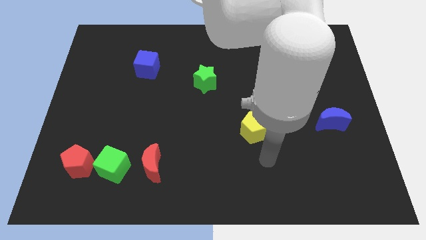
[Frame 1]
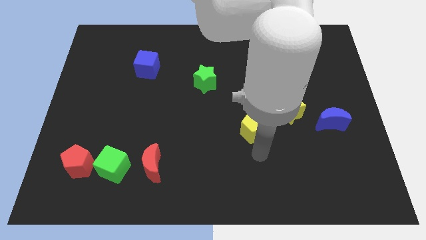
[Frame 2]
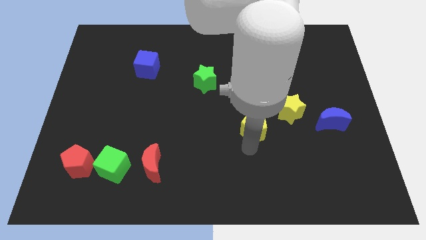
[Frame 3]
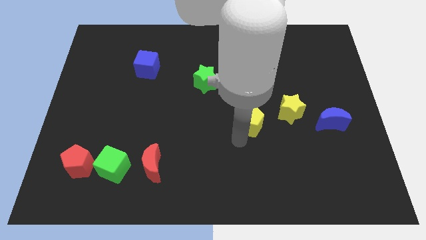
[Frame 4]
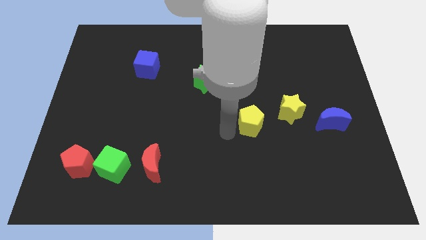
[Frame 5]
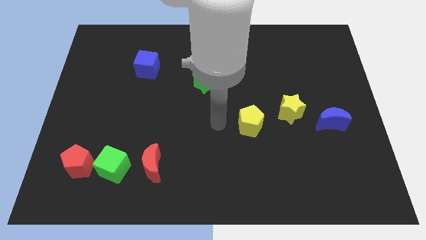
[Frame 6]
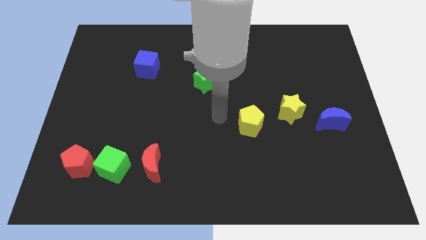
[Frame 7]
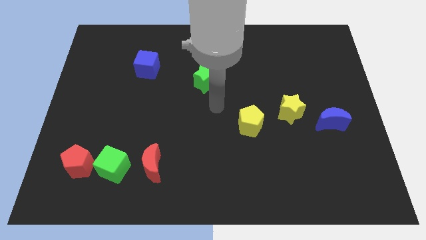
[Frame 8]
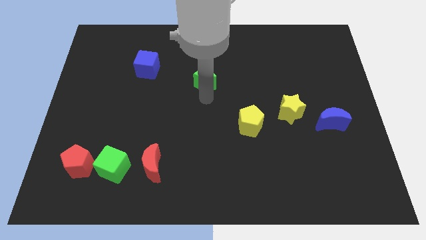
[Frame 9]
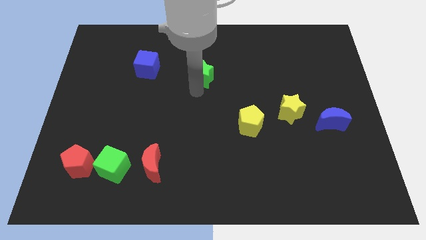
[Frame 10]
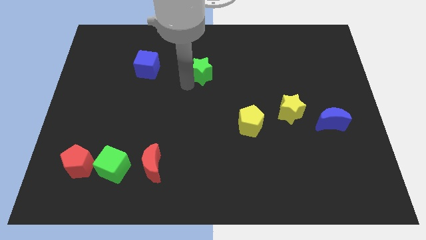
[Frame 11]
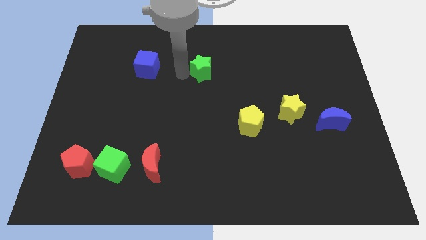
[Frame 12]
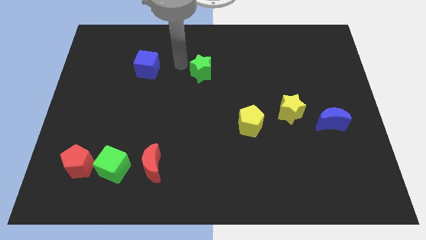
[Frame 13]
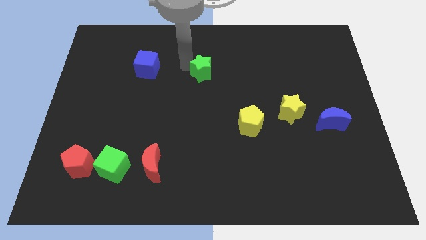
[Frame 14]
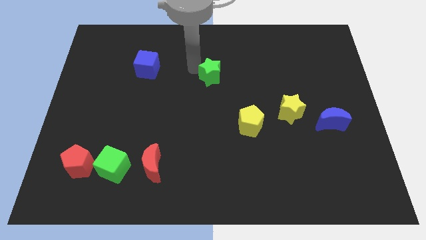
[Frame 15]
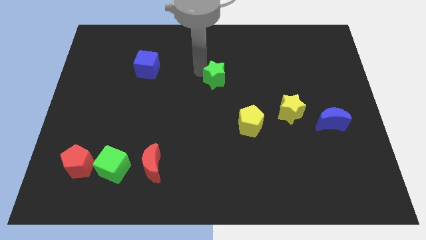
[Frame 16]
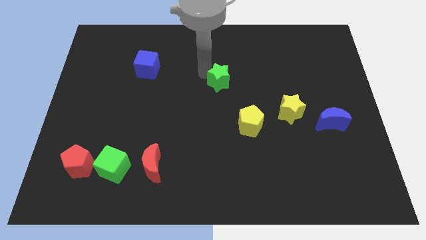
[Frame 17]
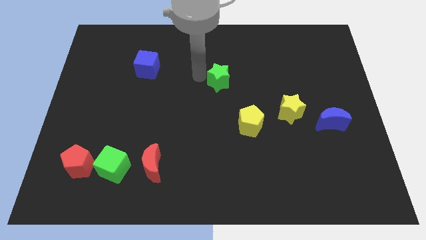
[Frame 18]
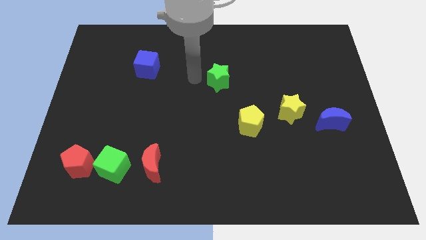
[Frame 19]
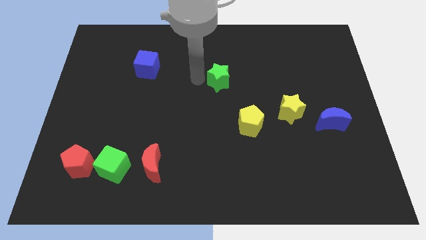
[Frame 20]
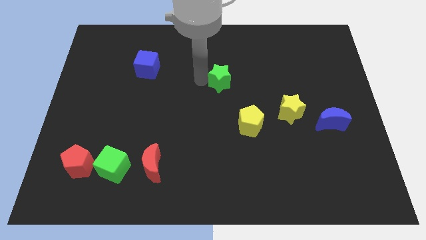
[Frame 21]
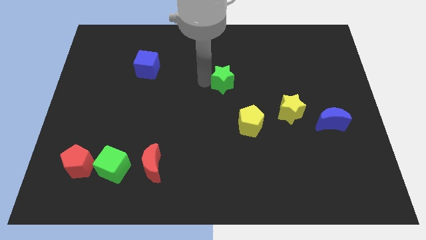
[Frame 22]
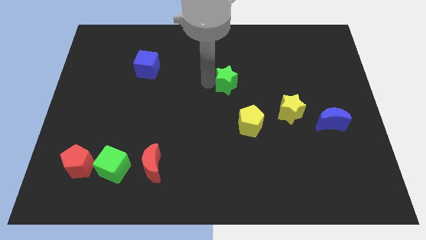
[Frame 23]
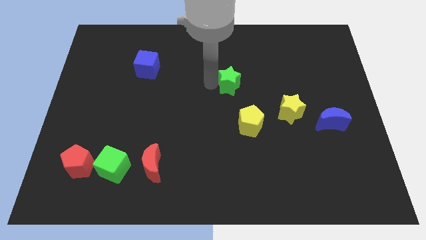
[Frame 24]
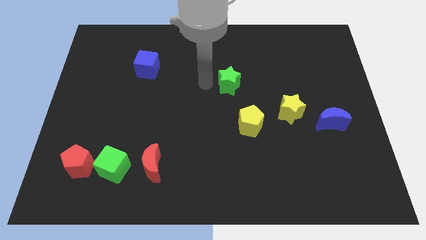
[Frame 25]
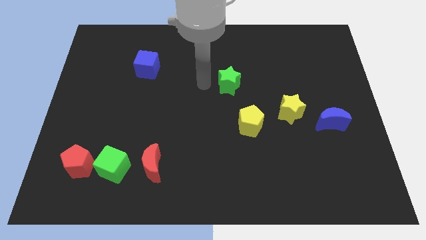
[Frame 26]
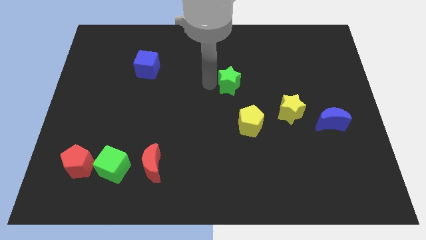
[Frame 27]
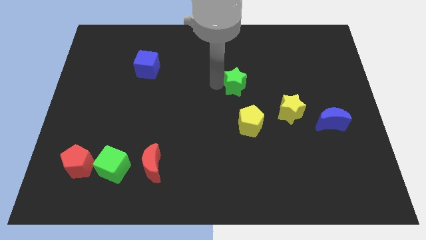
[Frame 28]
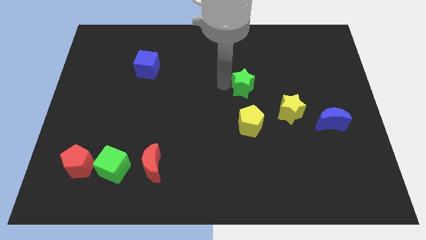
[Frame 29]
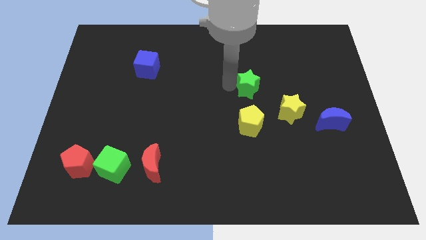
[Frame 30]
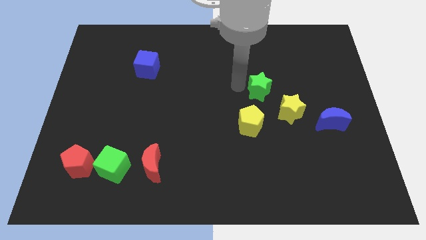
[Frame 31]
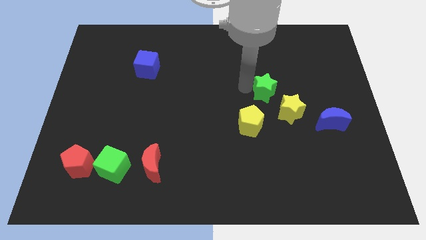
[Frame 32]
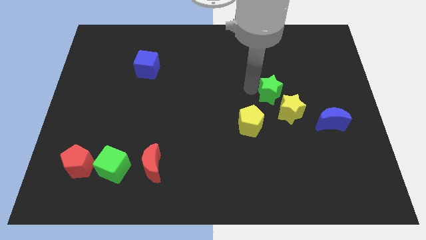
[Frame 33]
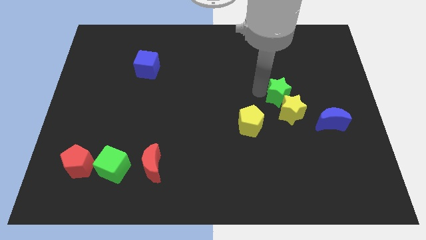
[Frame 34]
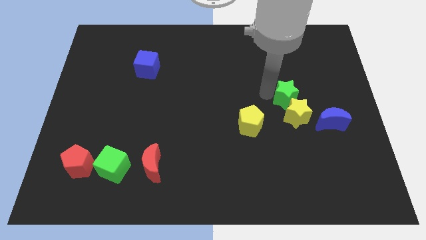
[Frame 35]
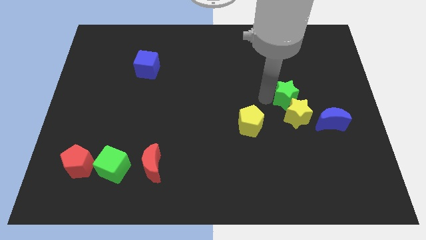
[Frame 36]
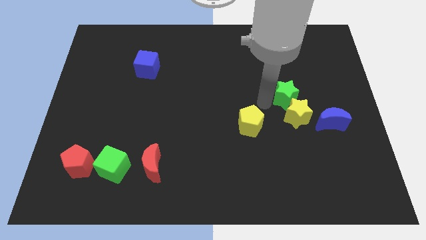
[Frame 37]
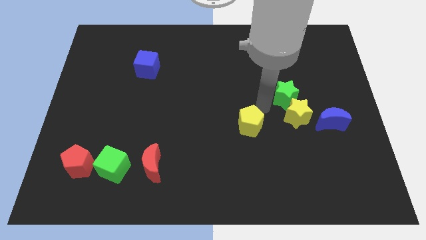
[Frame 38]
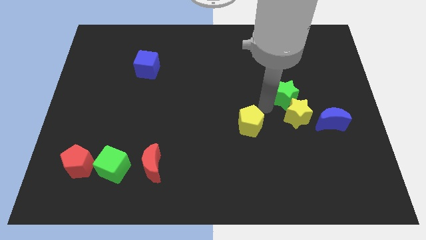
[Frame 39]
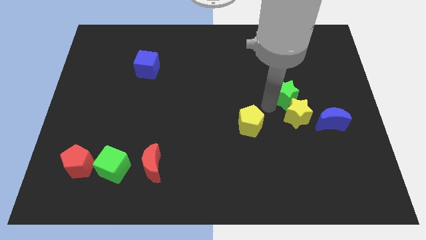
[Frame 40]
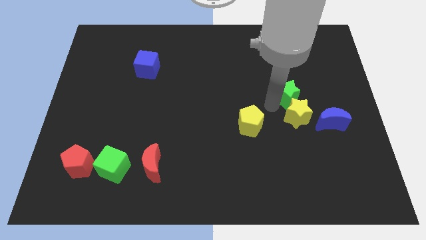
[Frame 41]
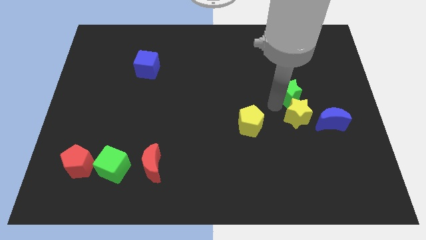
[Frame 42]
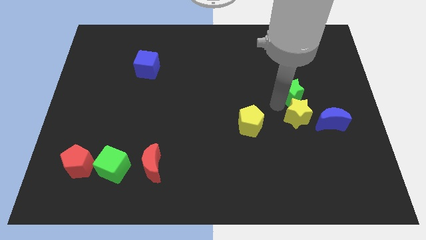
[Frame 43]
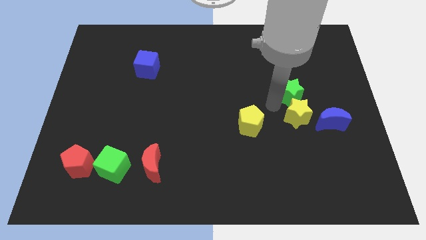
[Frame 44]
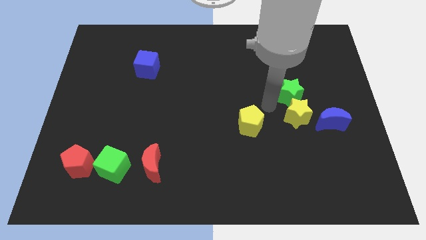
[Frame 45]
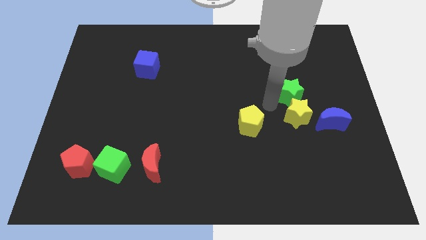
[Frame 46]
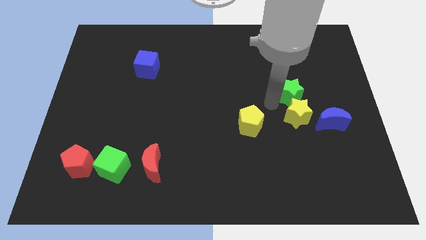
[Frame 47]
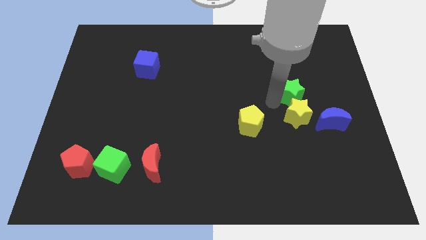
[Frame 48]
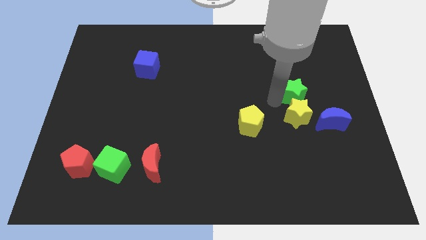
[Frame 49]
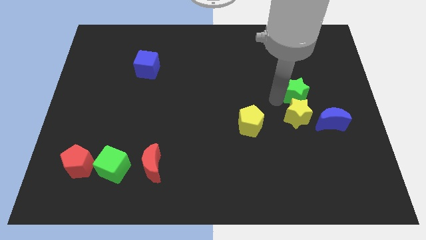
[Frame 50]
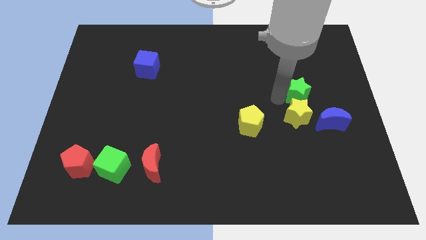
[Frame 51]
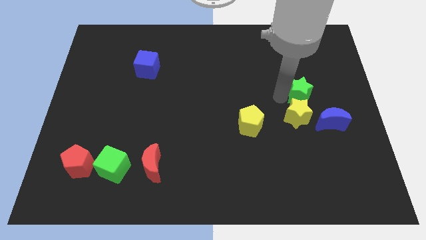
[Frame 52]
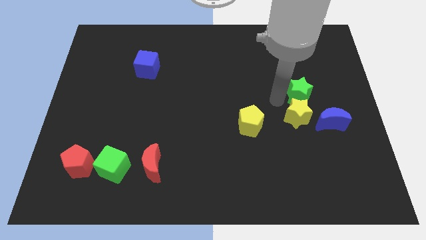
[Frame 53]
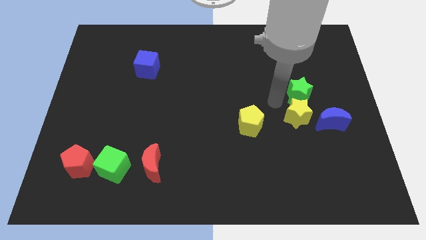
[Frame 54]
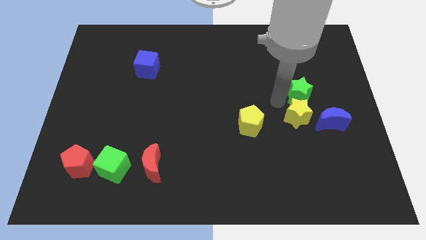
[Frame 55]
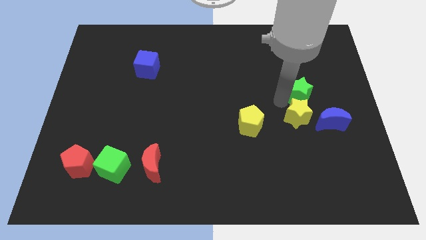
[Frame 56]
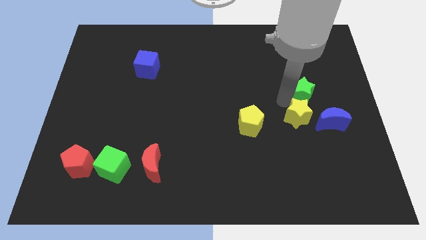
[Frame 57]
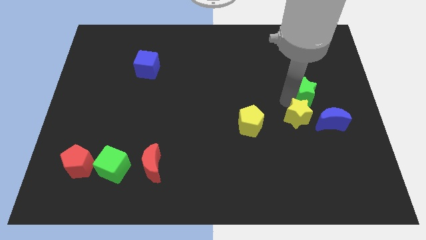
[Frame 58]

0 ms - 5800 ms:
slide the green star above the blue moon

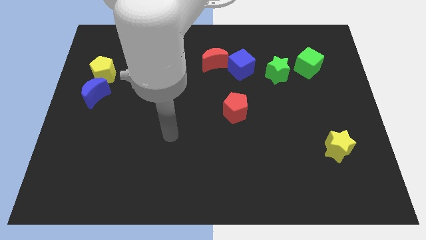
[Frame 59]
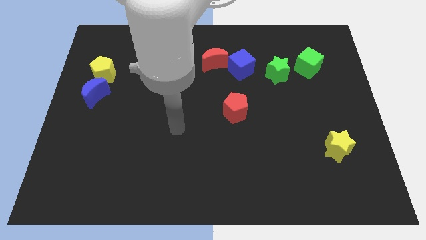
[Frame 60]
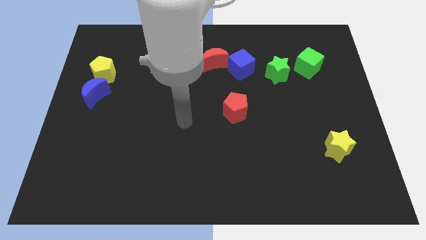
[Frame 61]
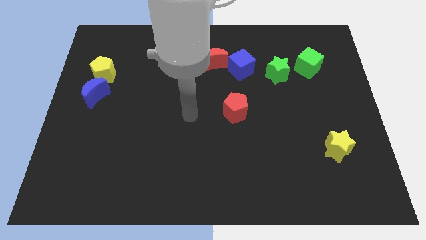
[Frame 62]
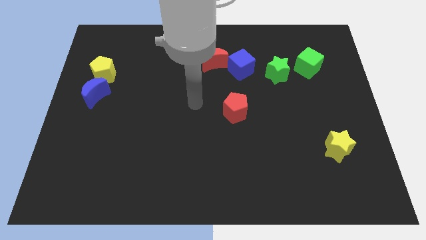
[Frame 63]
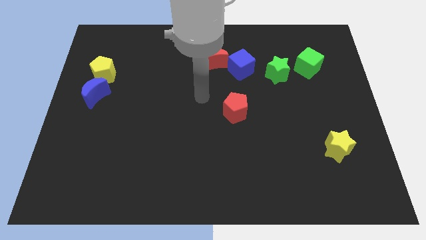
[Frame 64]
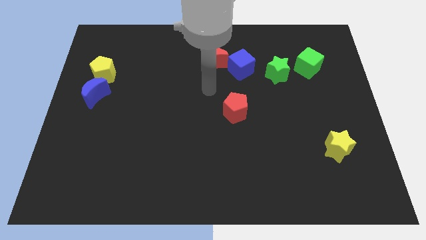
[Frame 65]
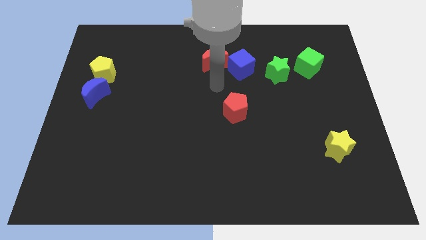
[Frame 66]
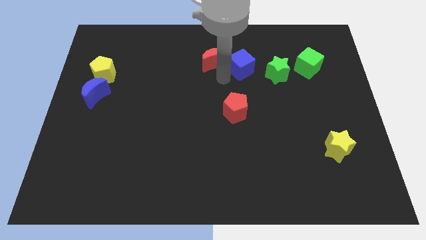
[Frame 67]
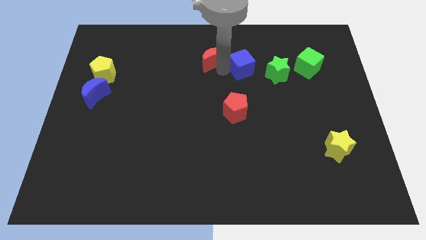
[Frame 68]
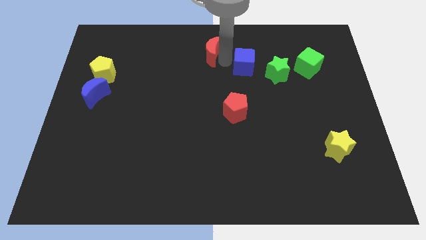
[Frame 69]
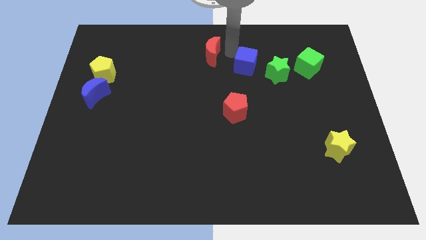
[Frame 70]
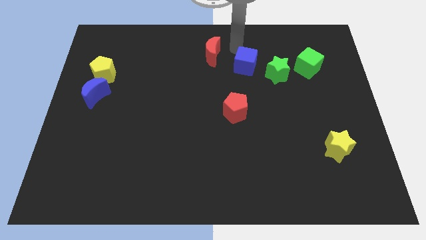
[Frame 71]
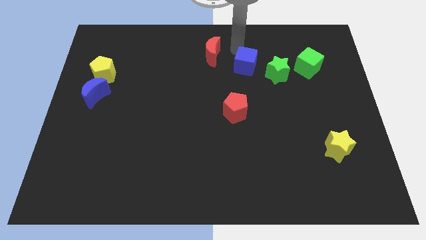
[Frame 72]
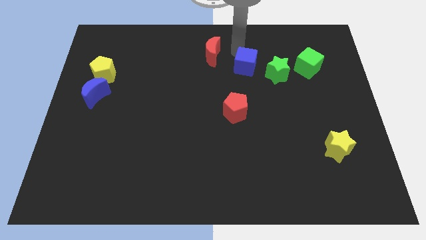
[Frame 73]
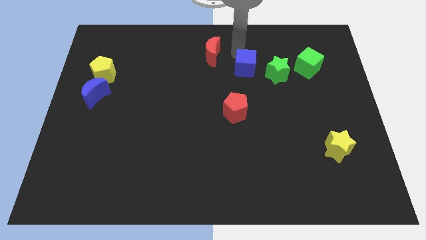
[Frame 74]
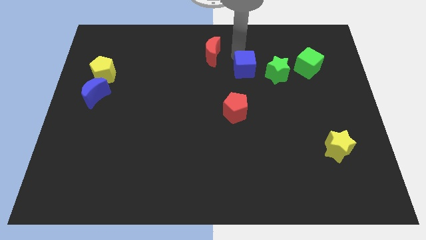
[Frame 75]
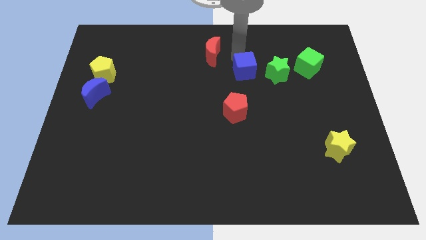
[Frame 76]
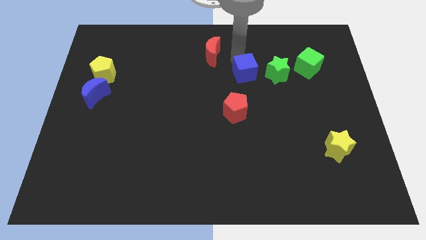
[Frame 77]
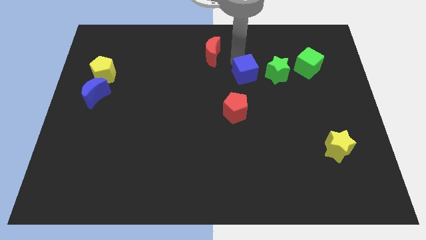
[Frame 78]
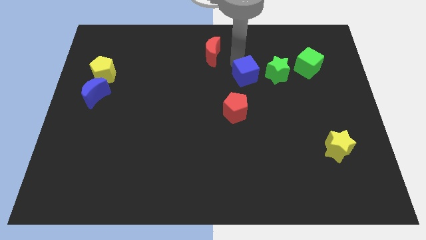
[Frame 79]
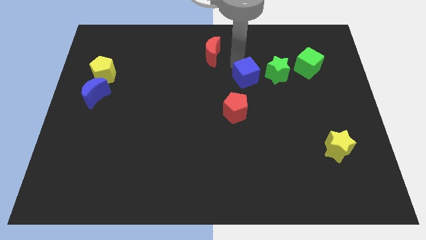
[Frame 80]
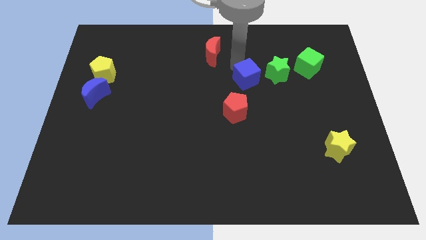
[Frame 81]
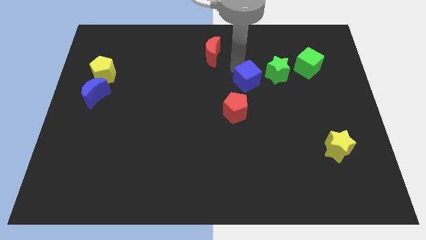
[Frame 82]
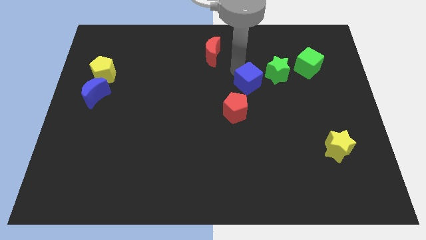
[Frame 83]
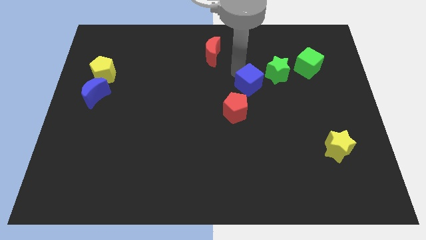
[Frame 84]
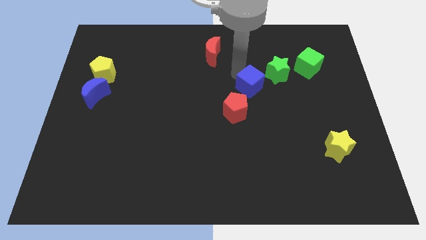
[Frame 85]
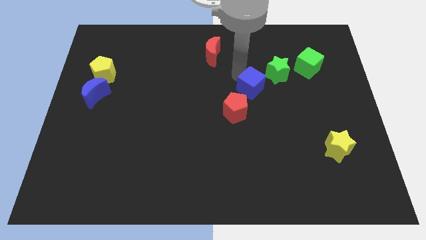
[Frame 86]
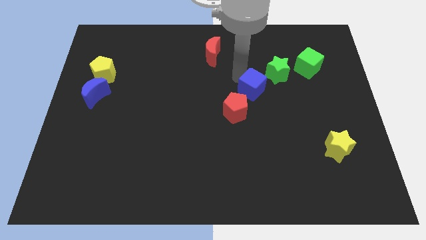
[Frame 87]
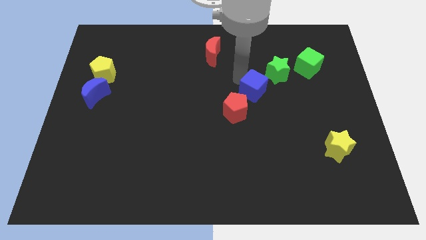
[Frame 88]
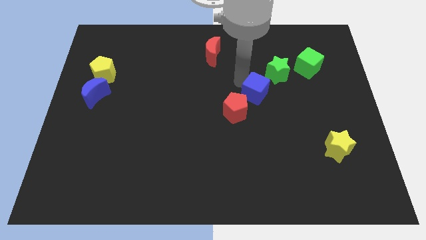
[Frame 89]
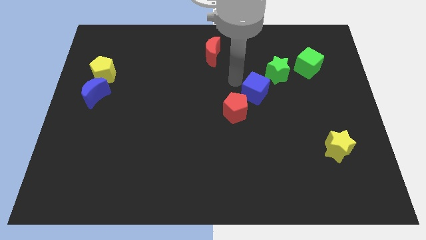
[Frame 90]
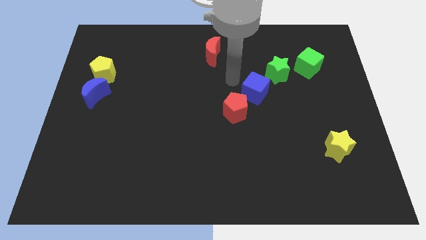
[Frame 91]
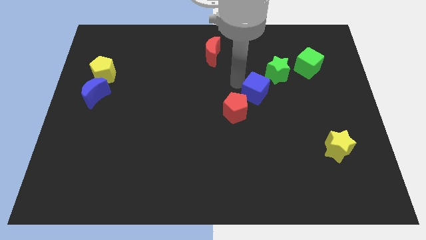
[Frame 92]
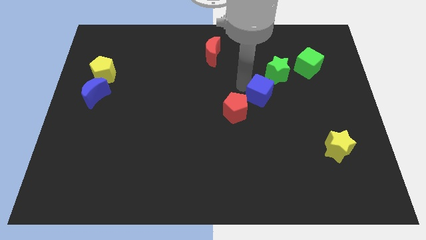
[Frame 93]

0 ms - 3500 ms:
push the blue cube to the bottom of the green star
